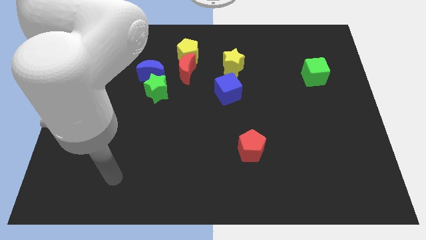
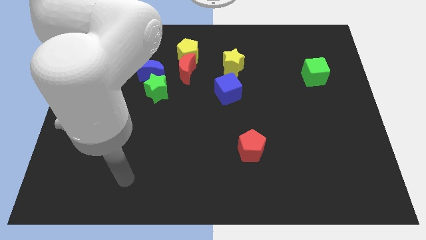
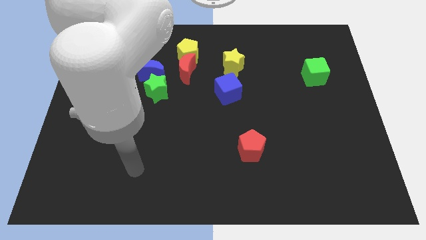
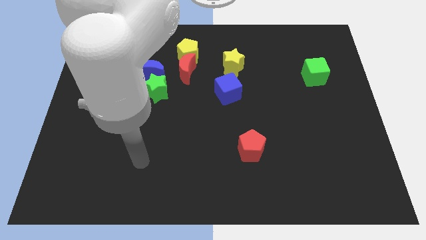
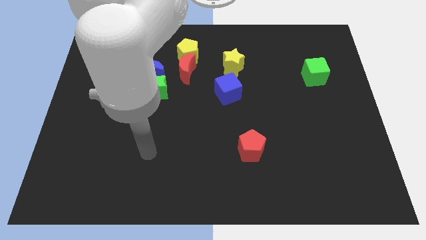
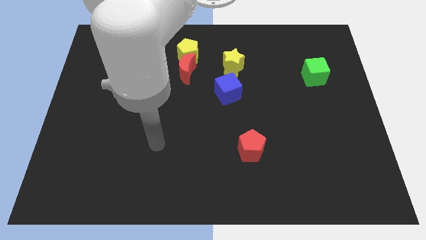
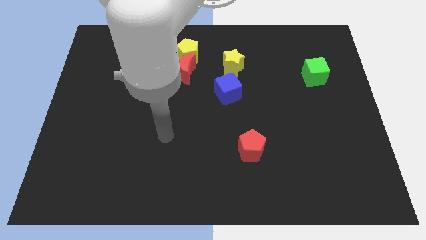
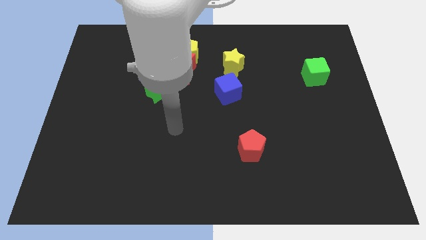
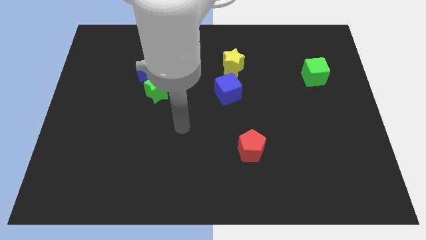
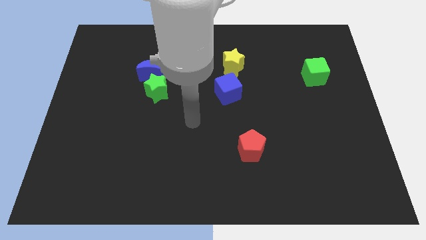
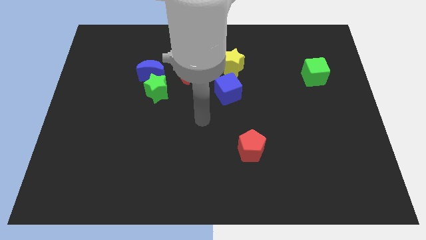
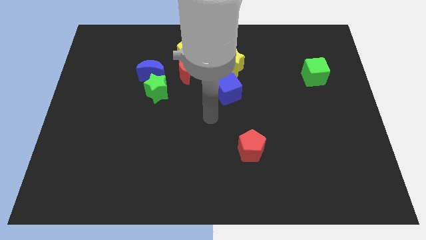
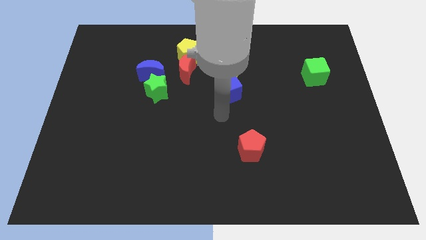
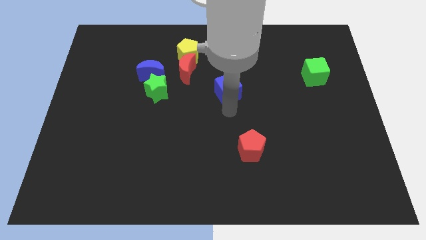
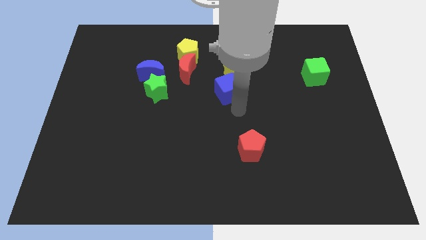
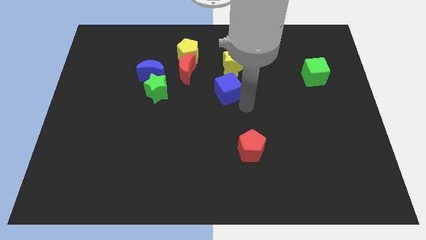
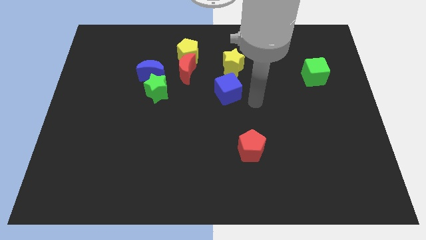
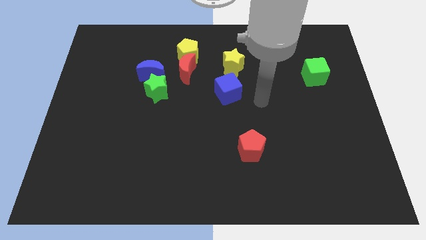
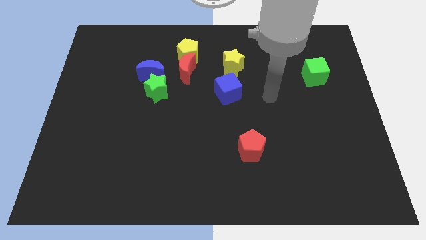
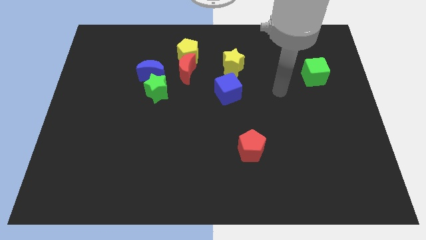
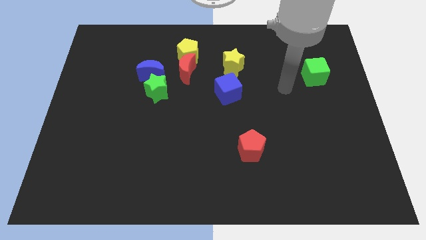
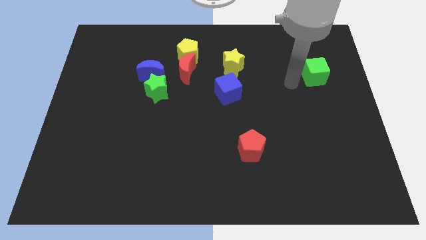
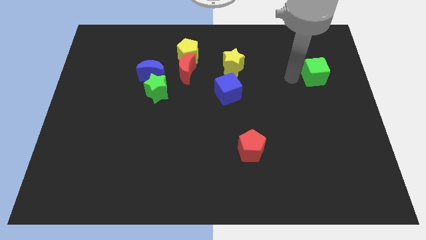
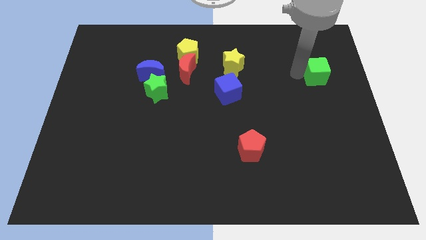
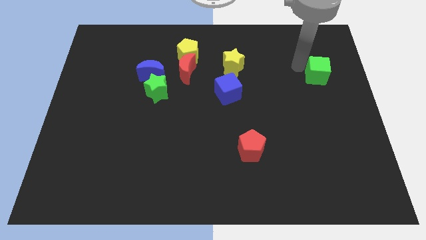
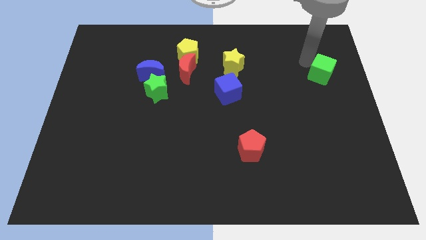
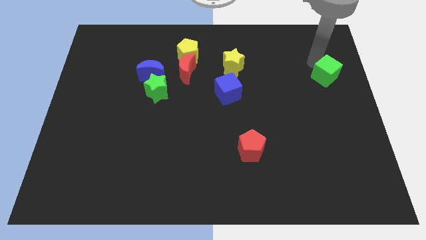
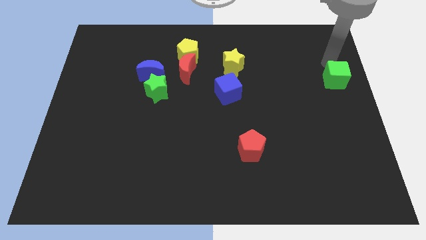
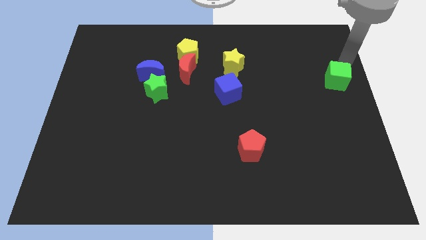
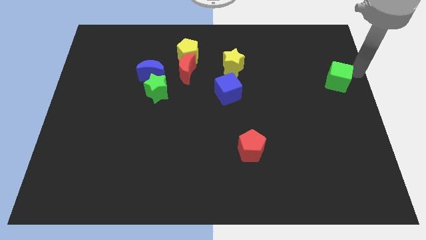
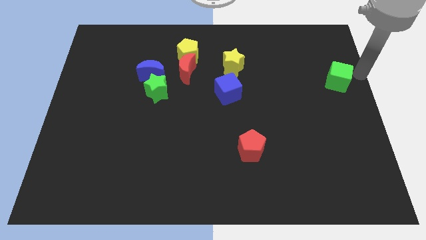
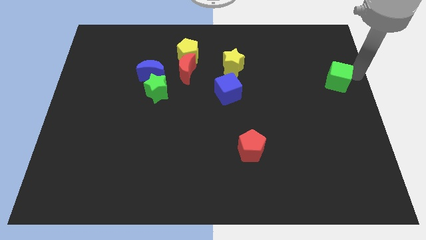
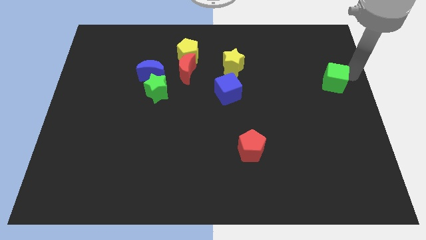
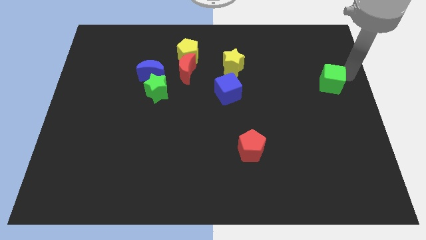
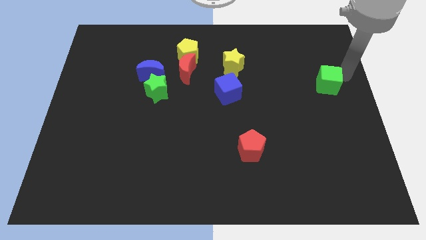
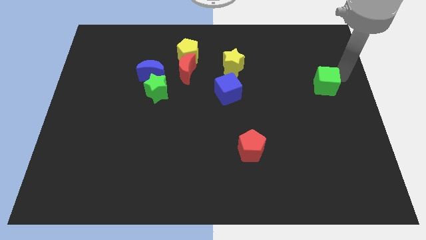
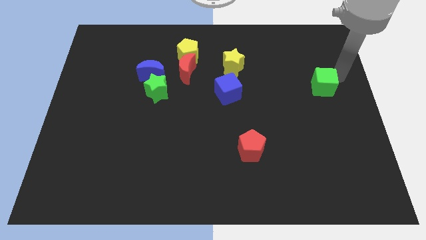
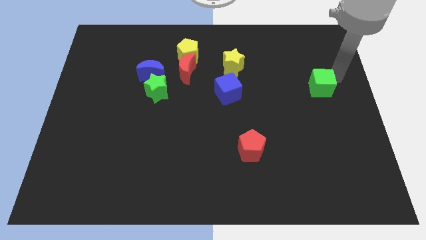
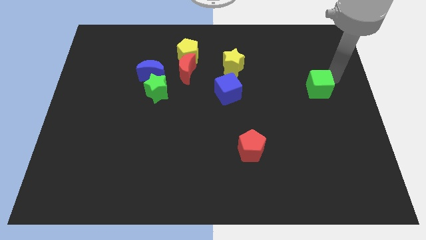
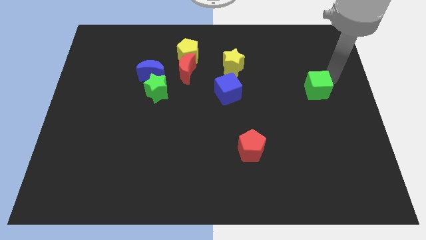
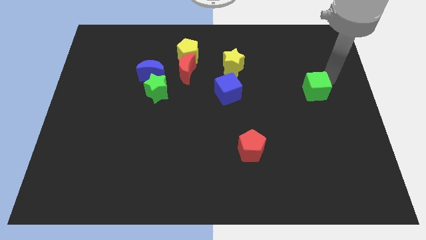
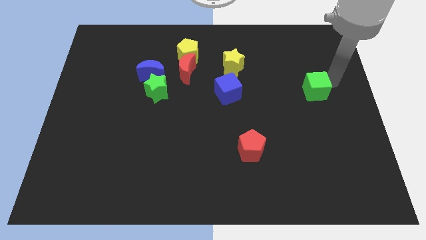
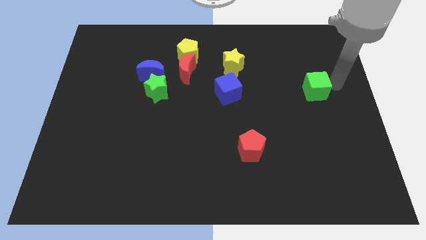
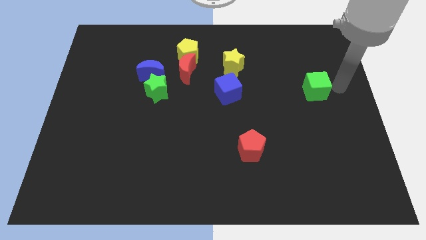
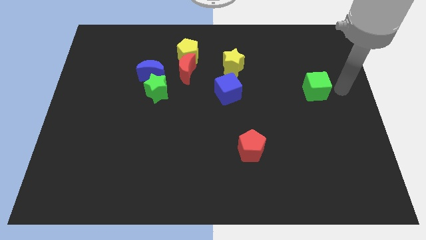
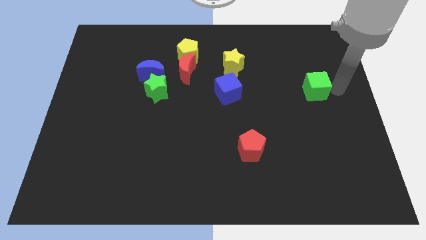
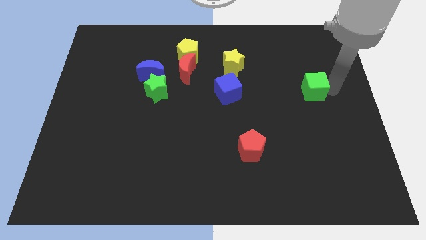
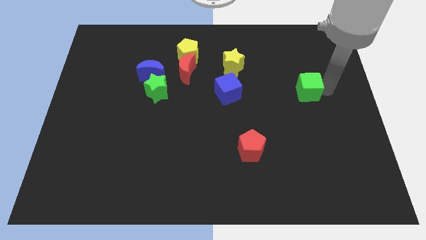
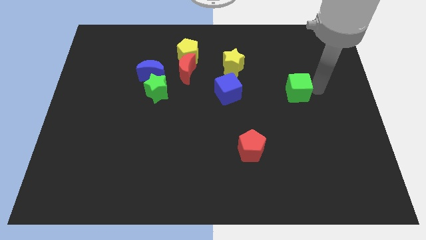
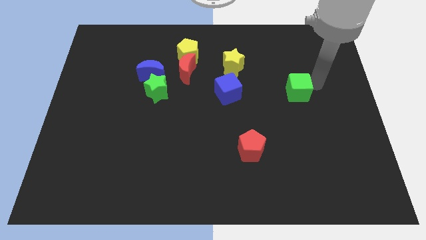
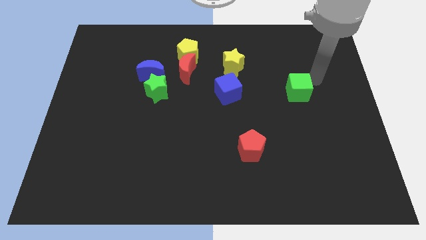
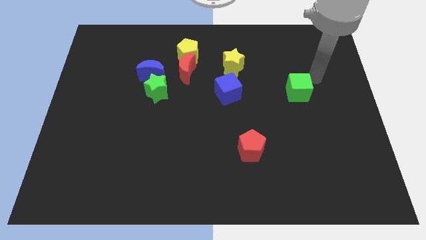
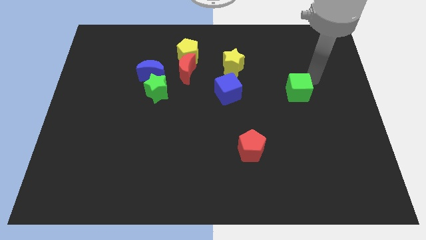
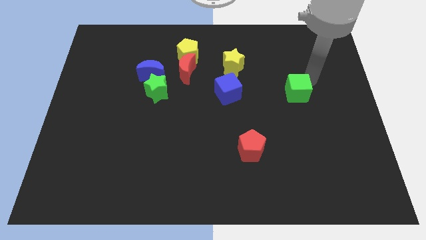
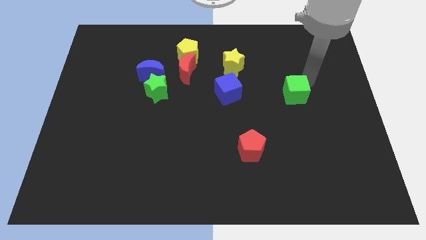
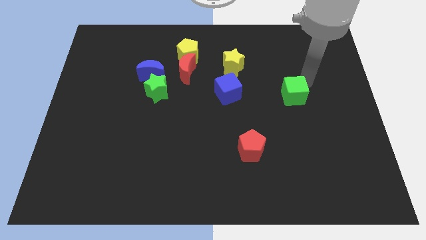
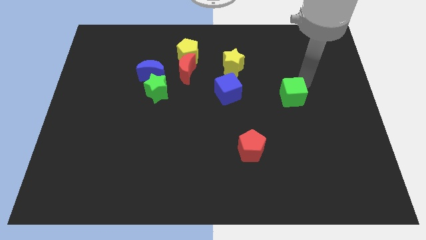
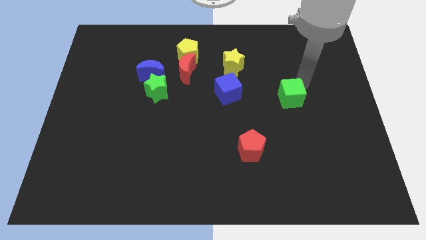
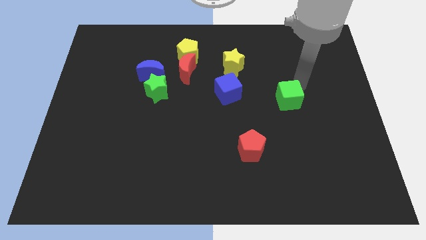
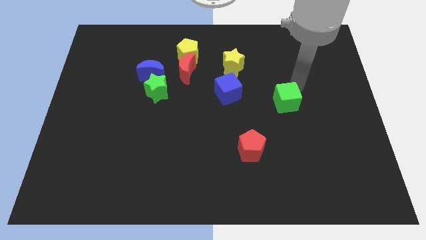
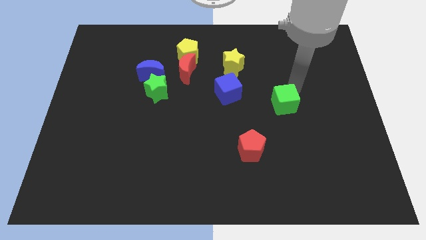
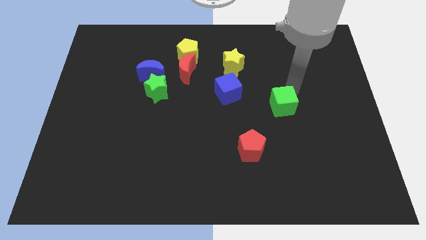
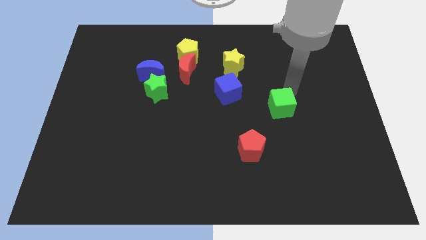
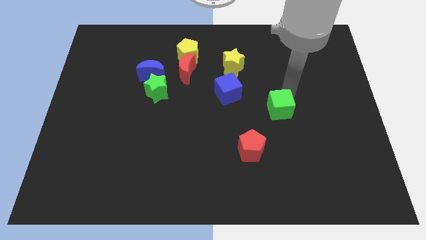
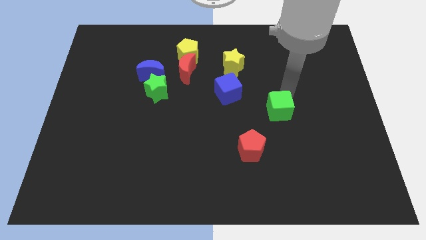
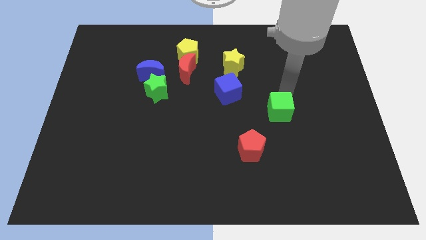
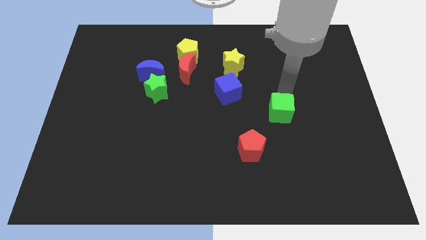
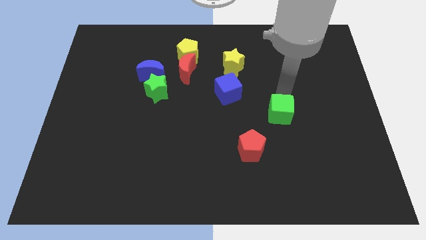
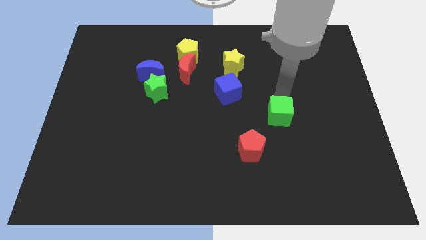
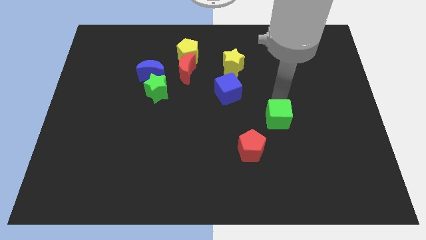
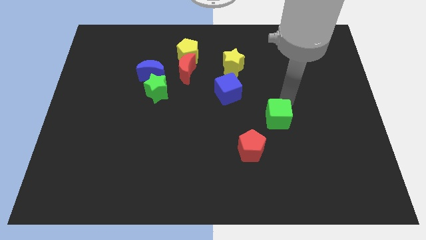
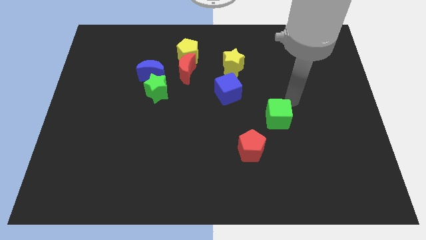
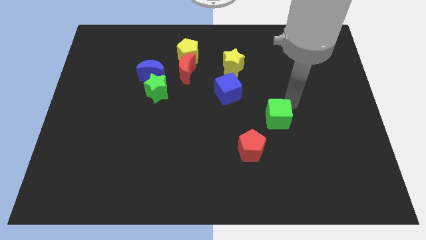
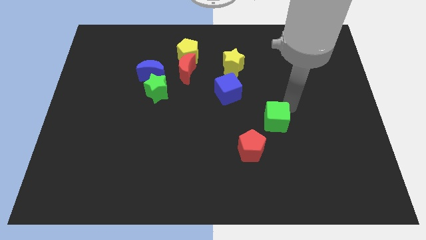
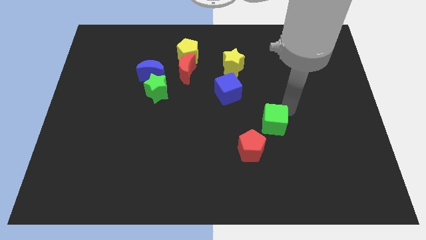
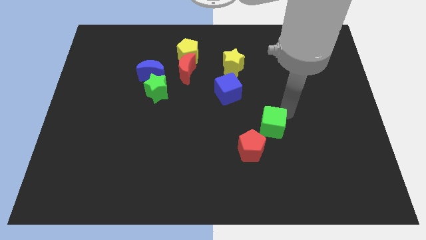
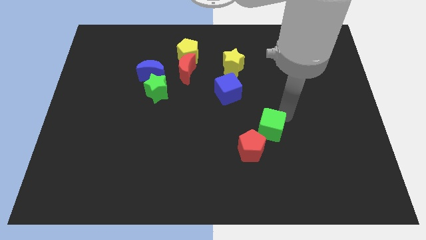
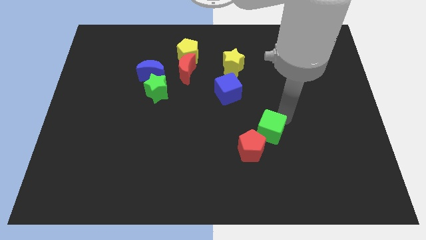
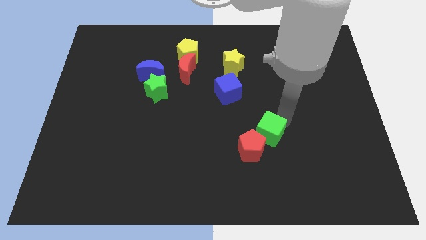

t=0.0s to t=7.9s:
push the green cube towards the red pentagon
